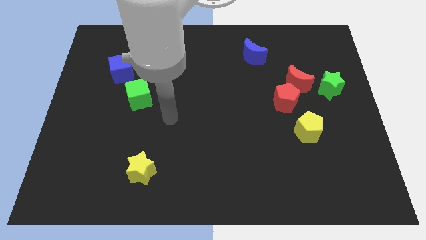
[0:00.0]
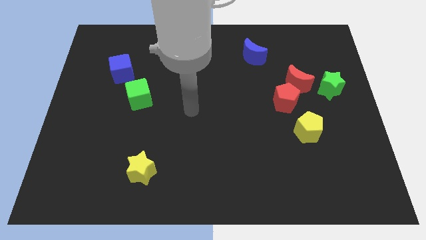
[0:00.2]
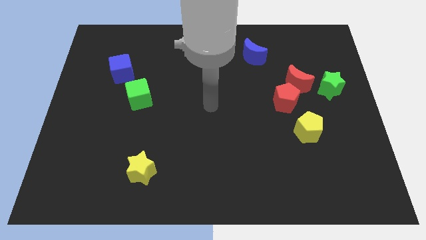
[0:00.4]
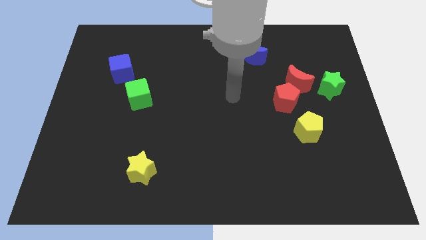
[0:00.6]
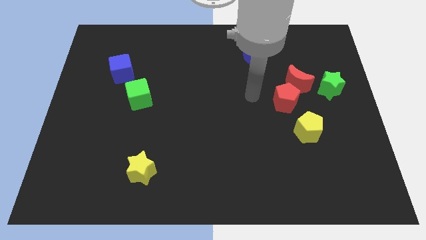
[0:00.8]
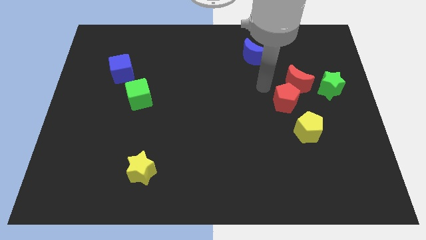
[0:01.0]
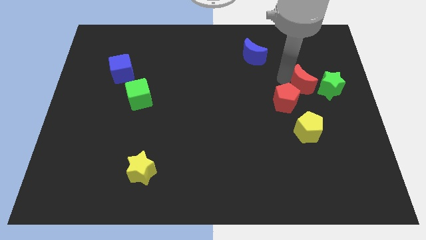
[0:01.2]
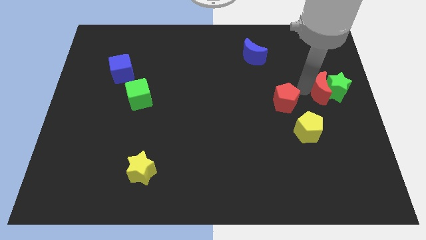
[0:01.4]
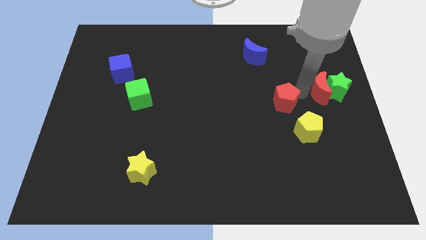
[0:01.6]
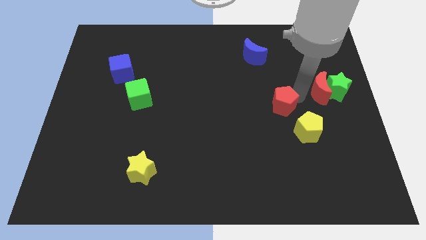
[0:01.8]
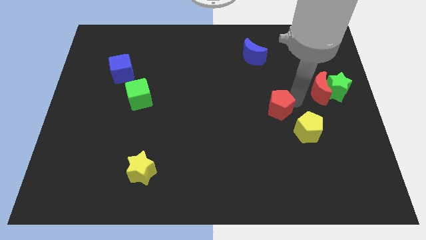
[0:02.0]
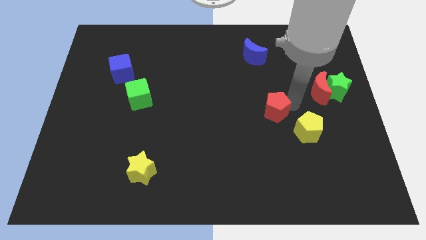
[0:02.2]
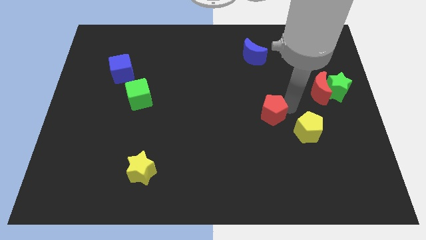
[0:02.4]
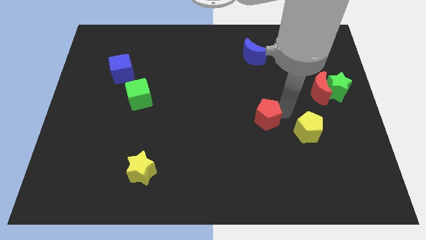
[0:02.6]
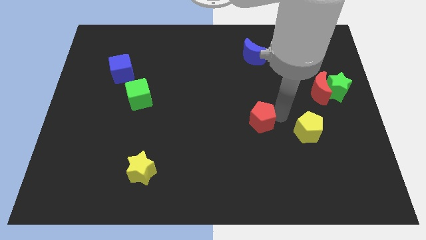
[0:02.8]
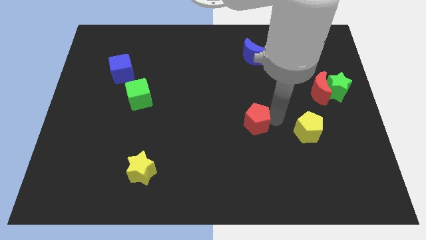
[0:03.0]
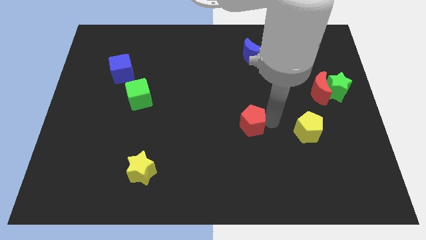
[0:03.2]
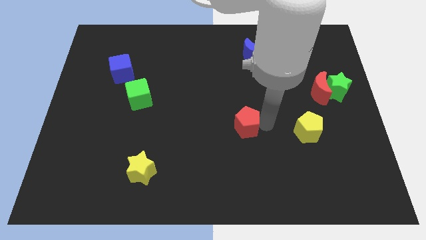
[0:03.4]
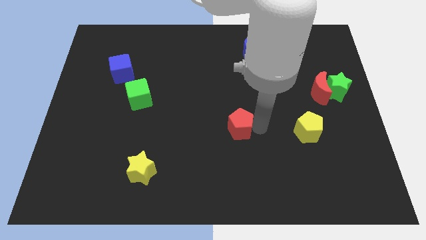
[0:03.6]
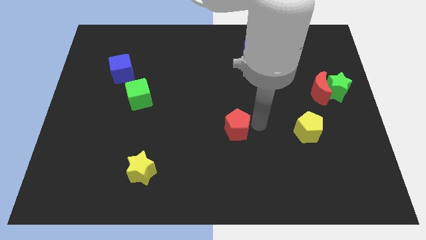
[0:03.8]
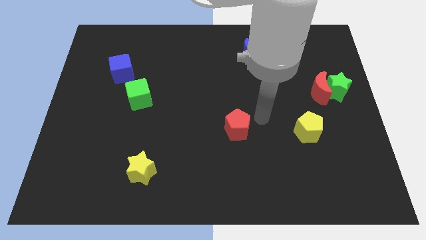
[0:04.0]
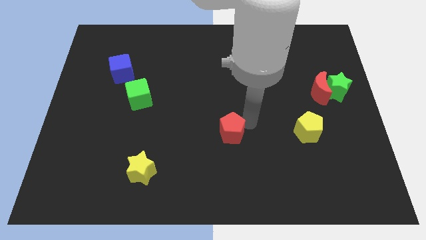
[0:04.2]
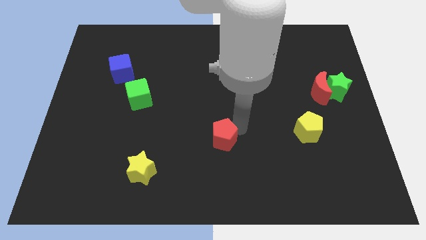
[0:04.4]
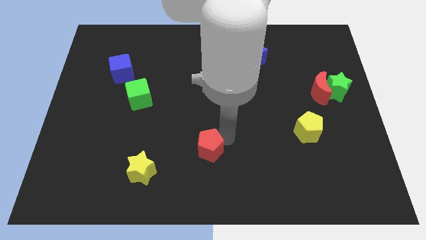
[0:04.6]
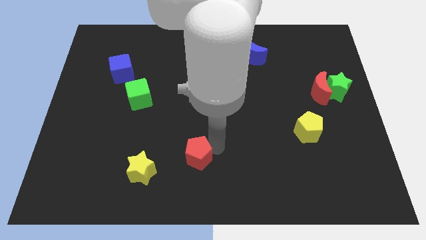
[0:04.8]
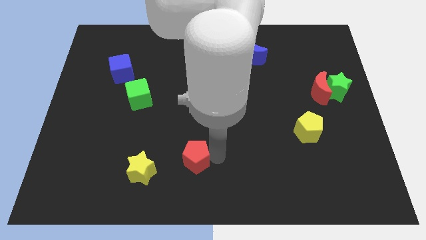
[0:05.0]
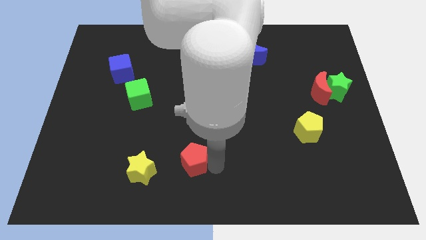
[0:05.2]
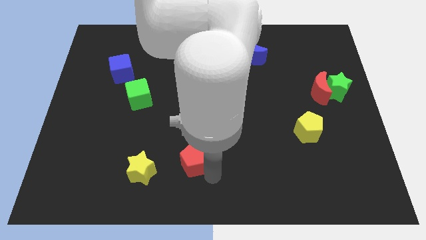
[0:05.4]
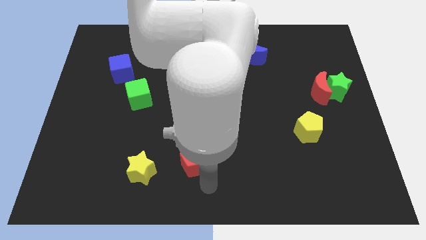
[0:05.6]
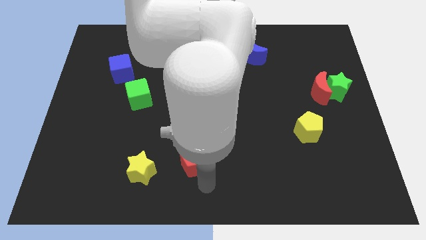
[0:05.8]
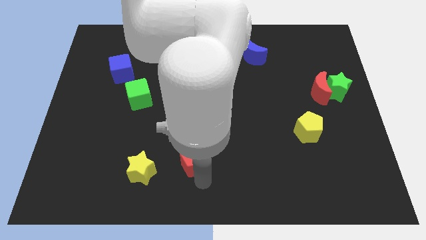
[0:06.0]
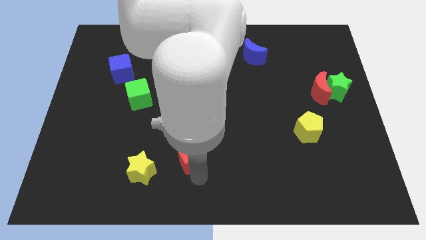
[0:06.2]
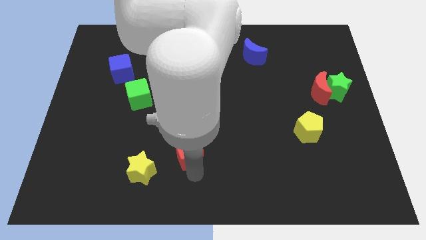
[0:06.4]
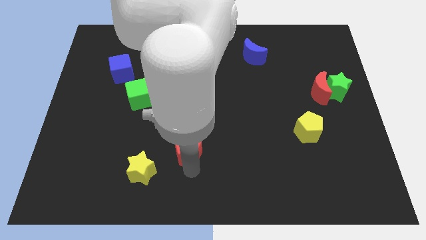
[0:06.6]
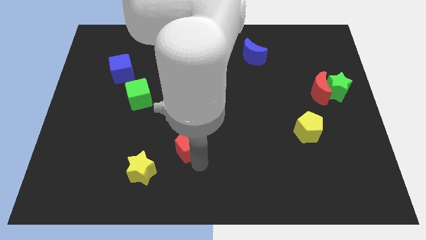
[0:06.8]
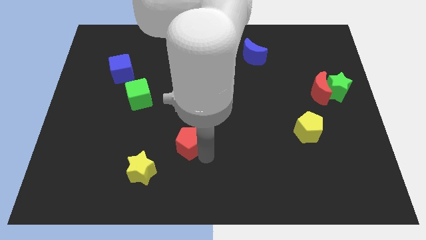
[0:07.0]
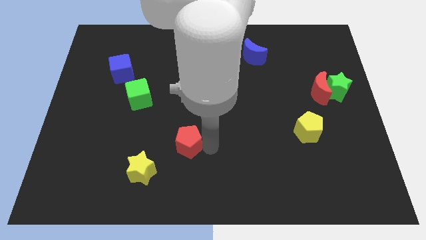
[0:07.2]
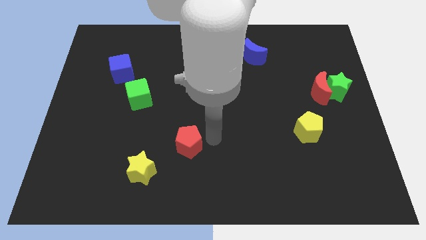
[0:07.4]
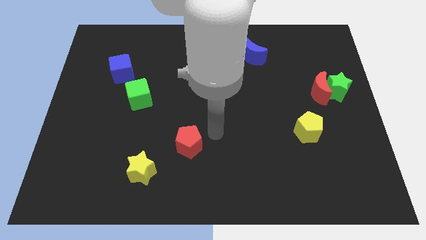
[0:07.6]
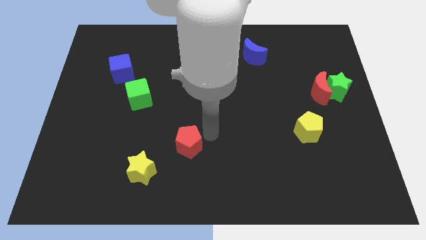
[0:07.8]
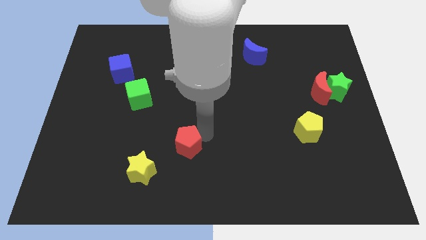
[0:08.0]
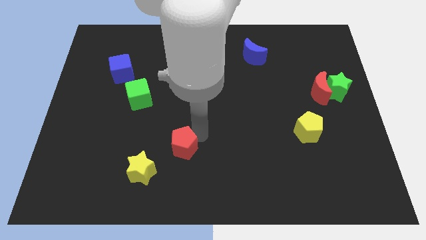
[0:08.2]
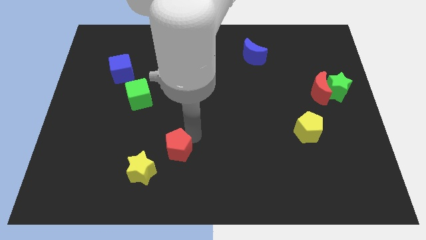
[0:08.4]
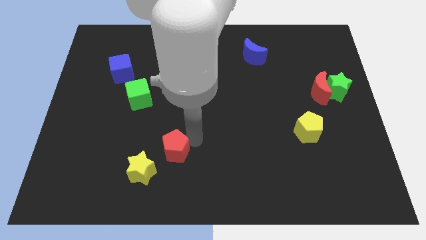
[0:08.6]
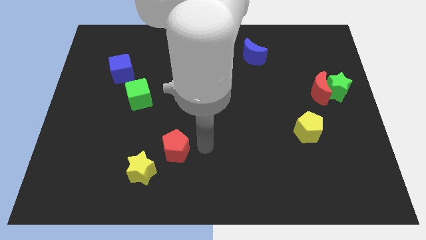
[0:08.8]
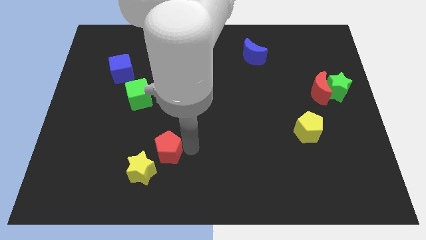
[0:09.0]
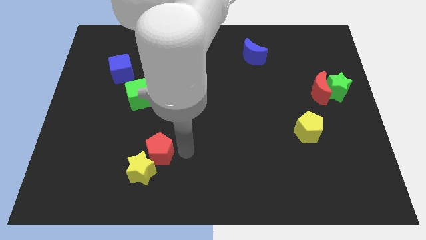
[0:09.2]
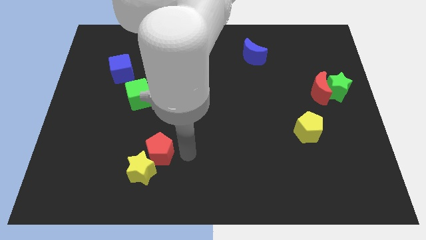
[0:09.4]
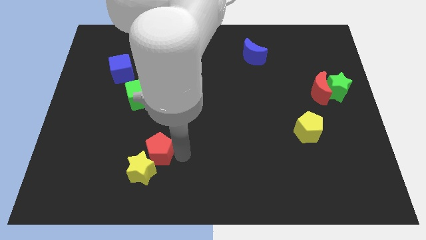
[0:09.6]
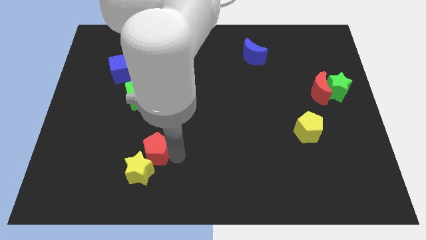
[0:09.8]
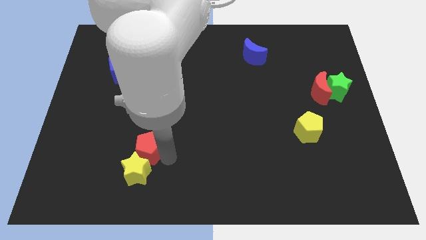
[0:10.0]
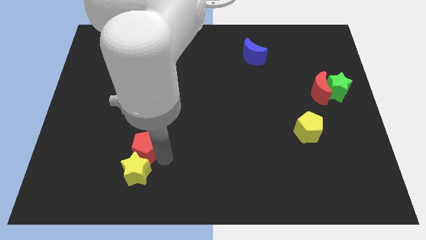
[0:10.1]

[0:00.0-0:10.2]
move the red pentagon to the top left side of the yellow star
